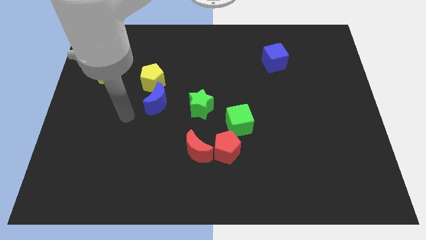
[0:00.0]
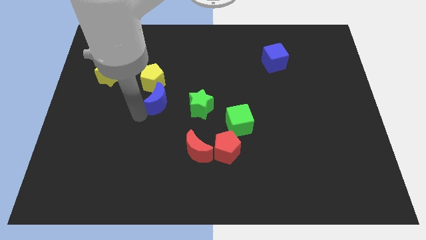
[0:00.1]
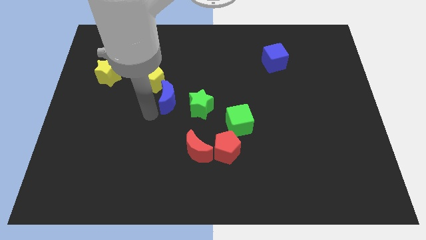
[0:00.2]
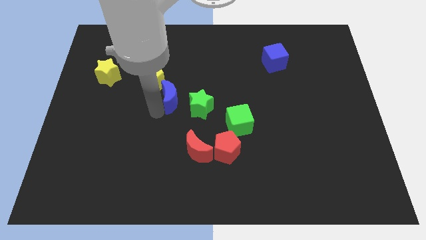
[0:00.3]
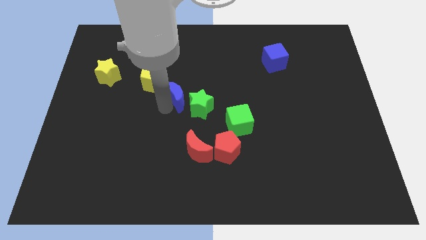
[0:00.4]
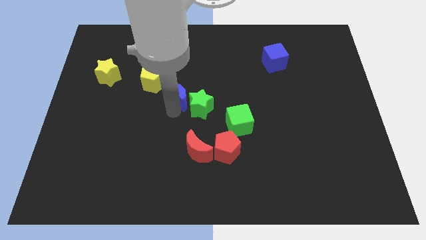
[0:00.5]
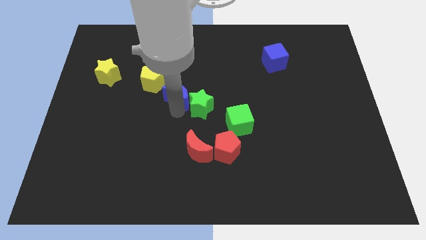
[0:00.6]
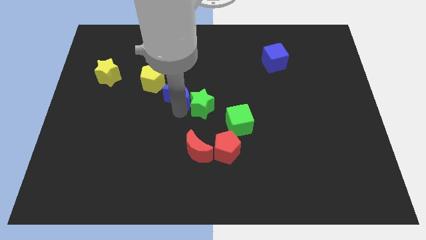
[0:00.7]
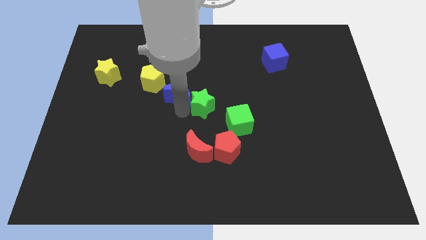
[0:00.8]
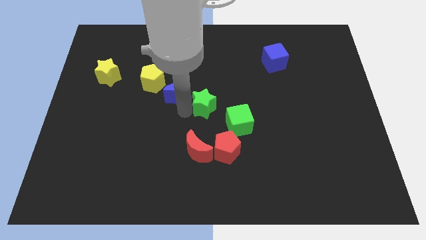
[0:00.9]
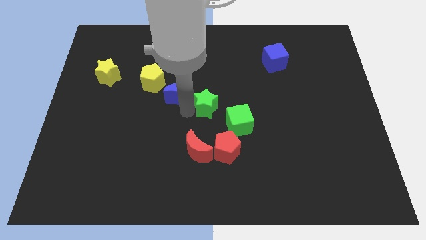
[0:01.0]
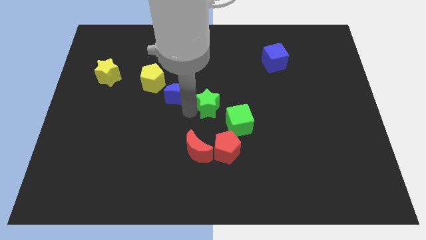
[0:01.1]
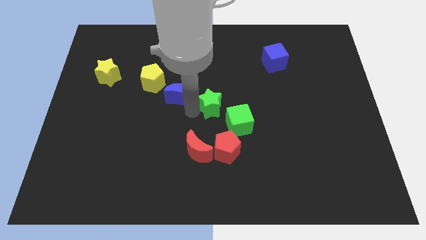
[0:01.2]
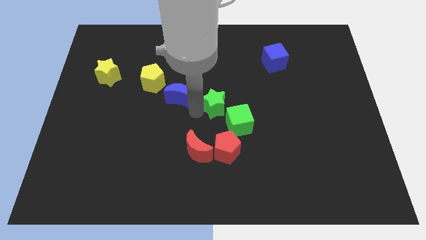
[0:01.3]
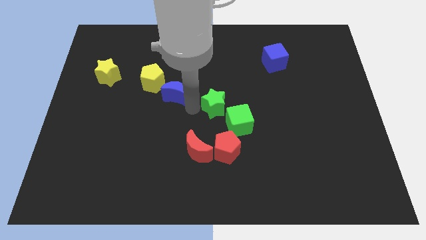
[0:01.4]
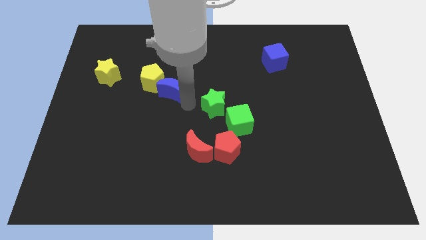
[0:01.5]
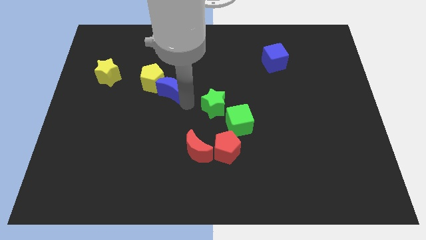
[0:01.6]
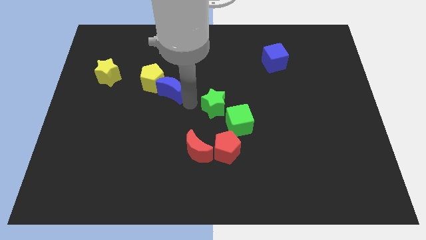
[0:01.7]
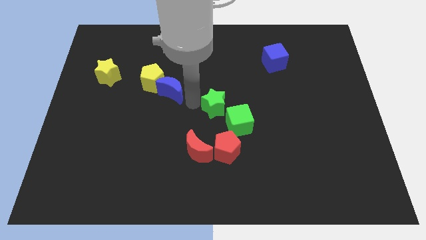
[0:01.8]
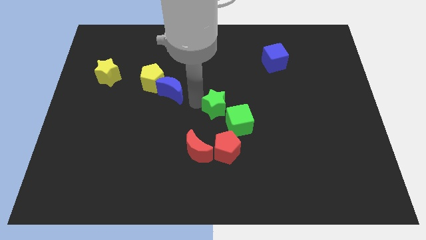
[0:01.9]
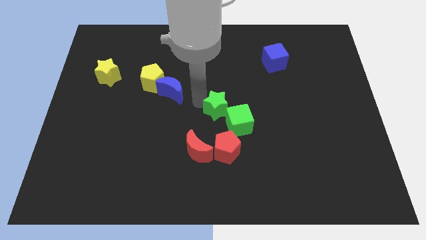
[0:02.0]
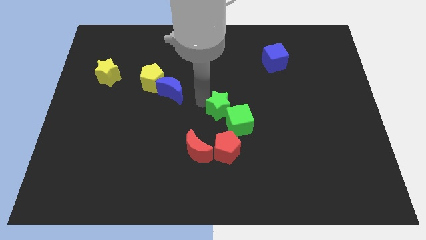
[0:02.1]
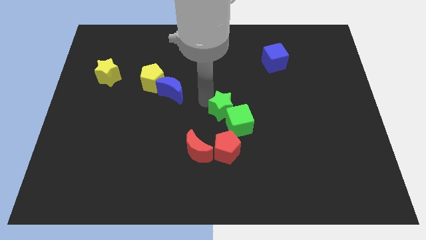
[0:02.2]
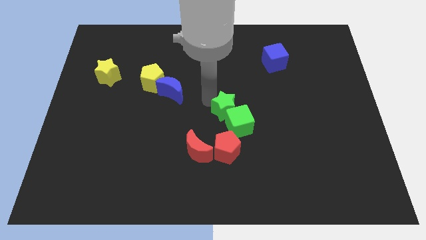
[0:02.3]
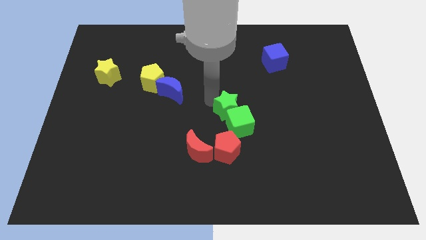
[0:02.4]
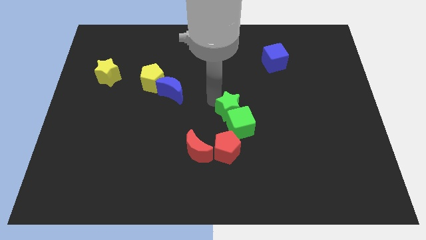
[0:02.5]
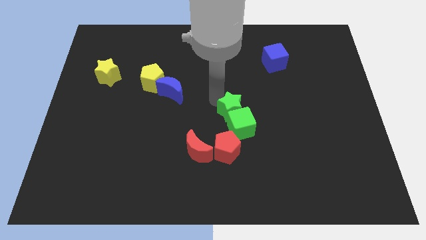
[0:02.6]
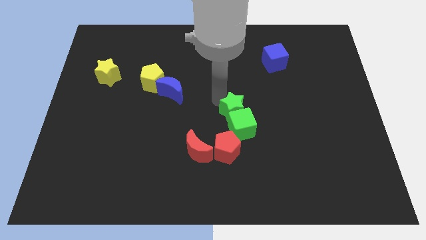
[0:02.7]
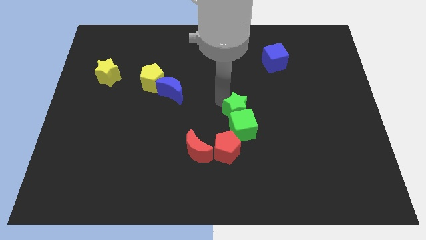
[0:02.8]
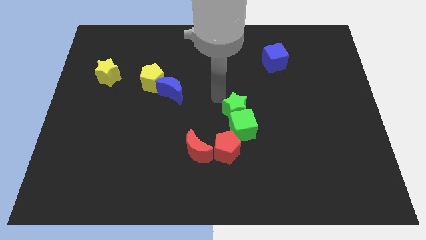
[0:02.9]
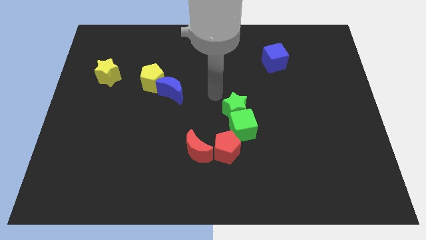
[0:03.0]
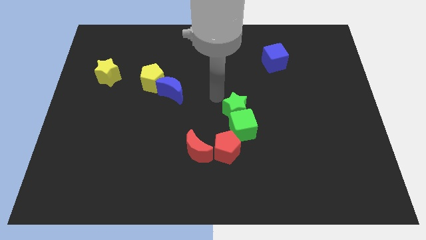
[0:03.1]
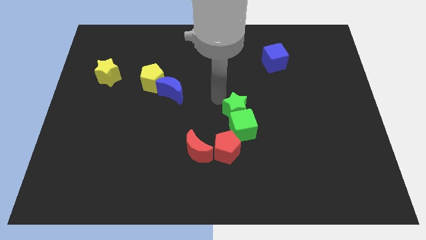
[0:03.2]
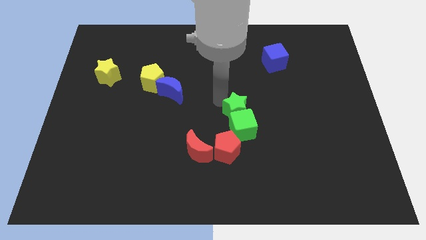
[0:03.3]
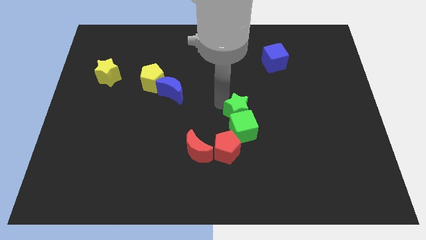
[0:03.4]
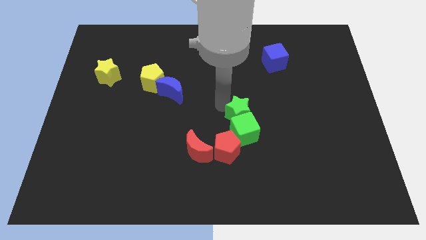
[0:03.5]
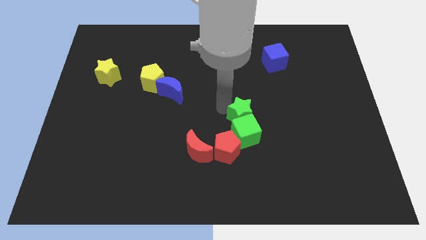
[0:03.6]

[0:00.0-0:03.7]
move the green star somewhat downwards and then right

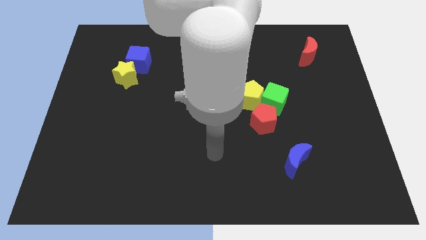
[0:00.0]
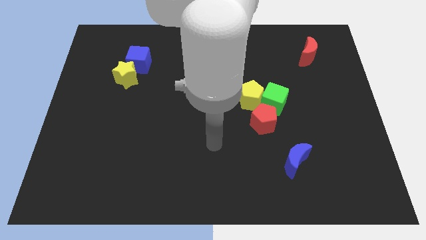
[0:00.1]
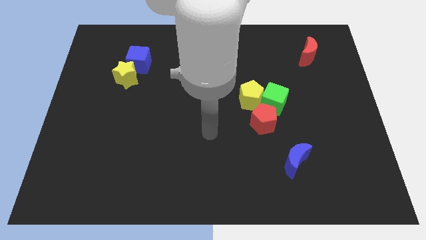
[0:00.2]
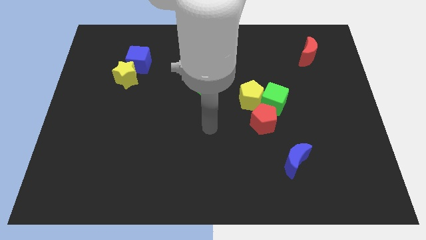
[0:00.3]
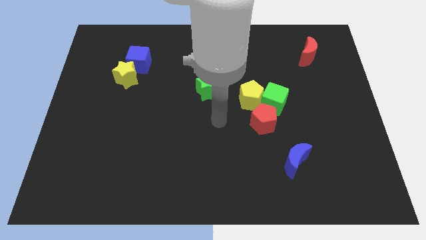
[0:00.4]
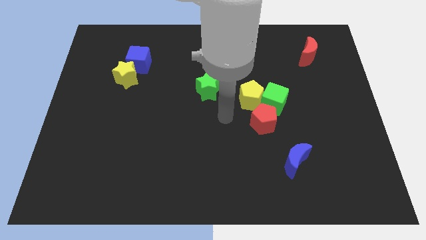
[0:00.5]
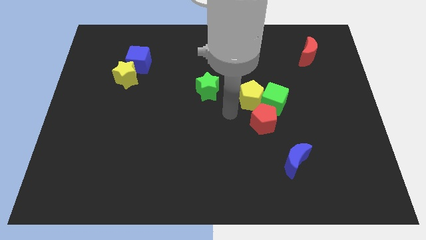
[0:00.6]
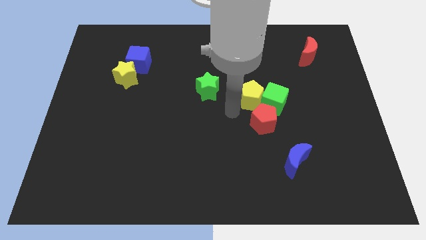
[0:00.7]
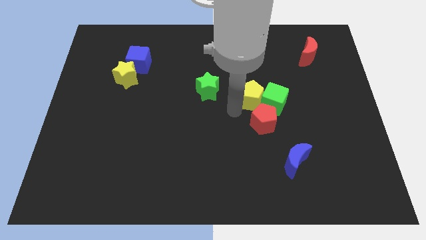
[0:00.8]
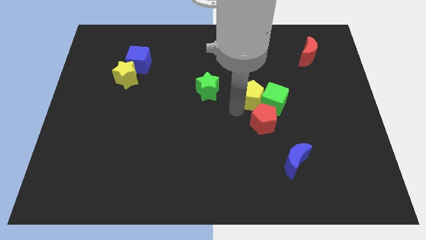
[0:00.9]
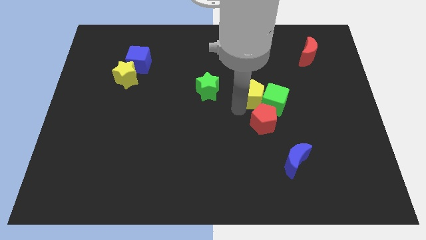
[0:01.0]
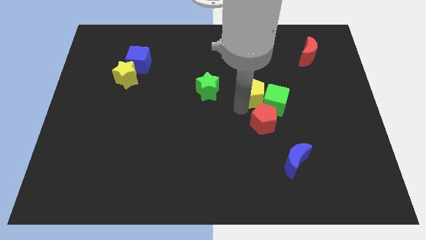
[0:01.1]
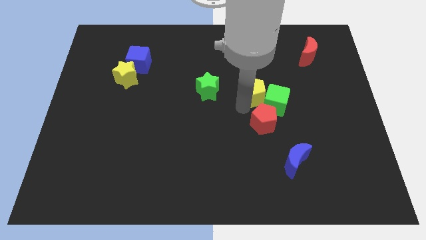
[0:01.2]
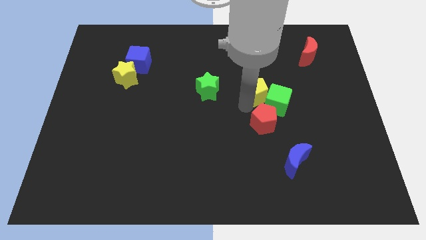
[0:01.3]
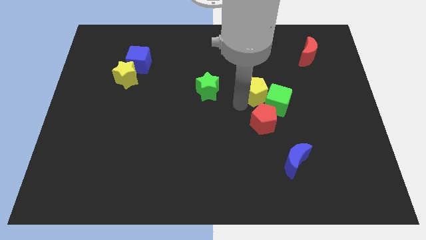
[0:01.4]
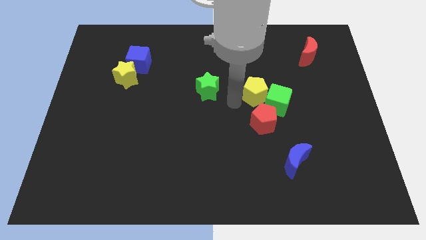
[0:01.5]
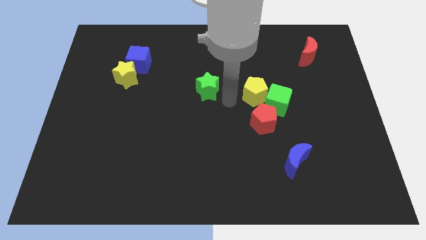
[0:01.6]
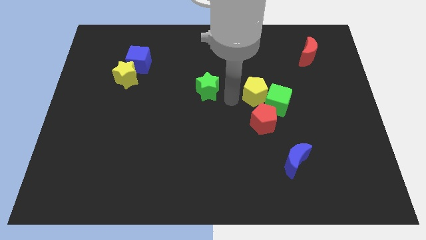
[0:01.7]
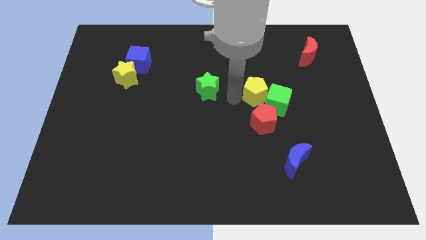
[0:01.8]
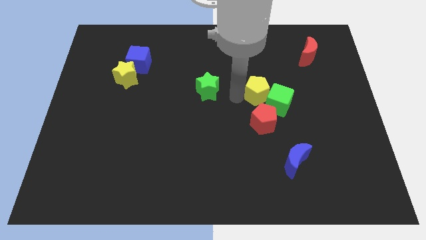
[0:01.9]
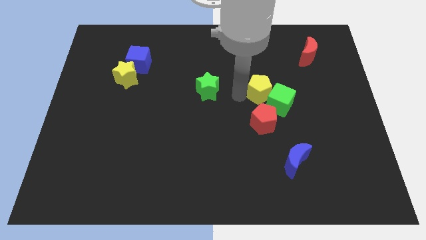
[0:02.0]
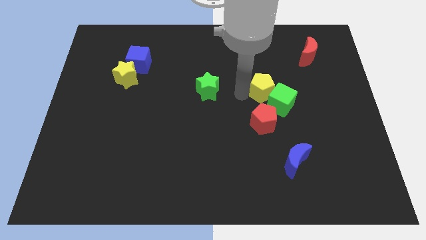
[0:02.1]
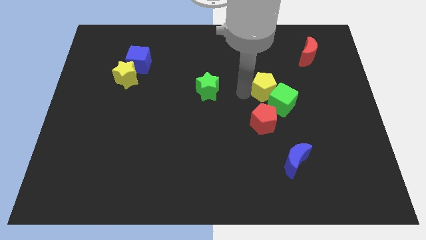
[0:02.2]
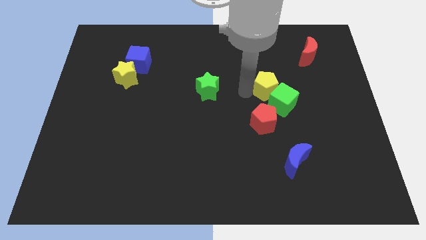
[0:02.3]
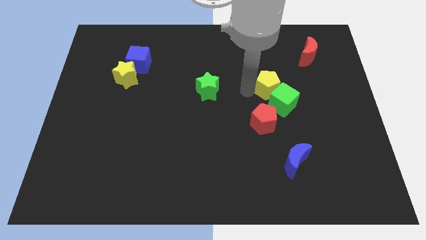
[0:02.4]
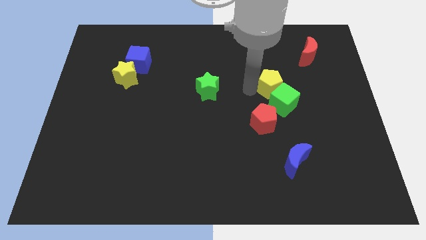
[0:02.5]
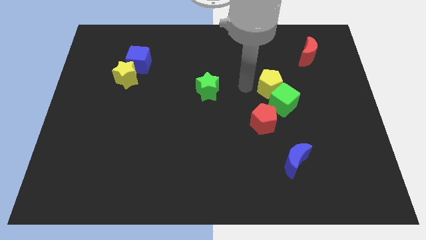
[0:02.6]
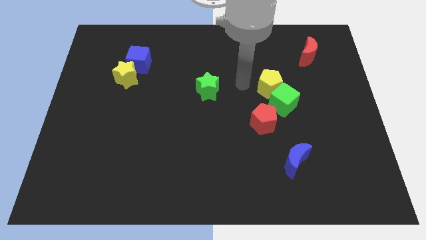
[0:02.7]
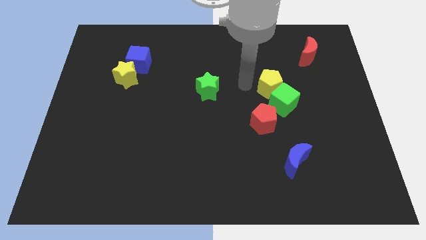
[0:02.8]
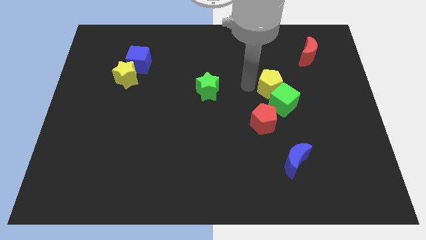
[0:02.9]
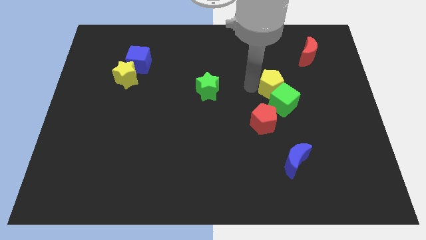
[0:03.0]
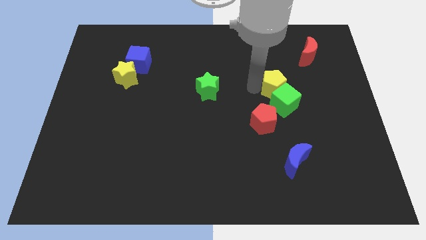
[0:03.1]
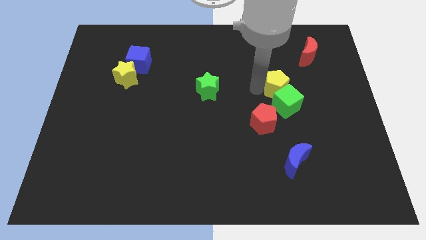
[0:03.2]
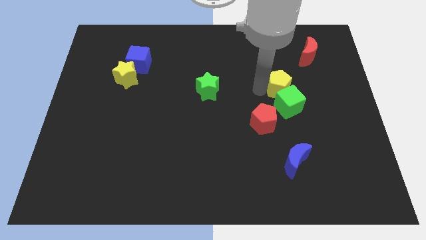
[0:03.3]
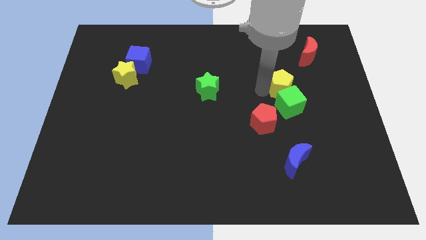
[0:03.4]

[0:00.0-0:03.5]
move the yellow pentagon somewhat to the right

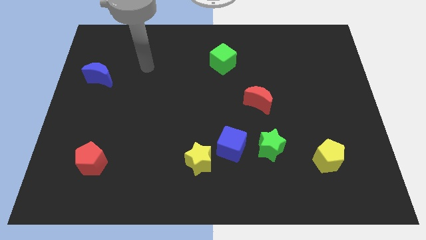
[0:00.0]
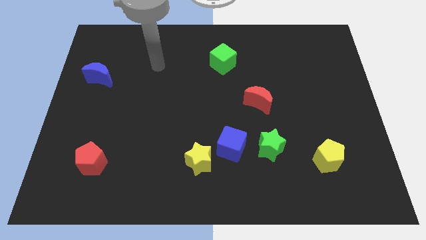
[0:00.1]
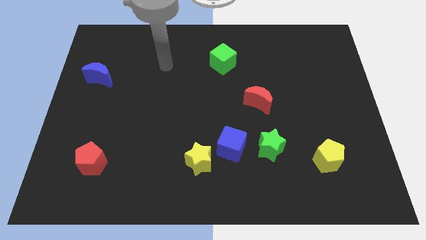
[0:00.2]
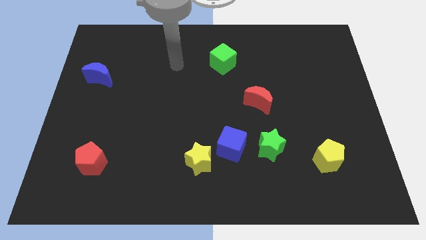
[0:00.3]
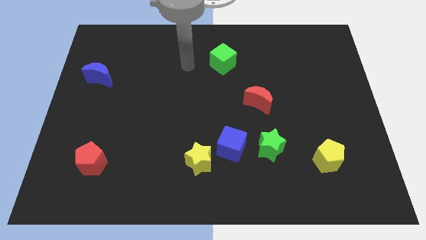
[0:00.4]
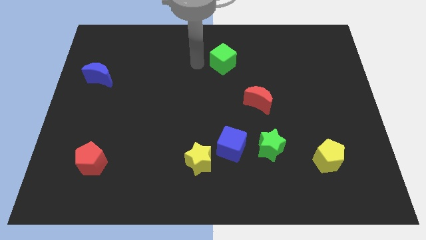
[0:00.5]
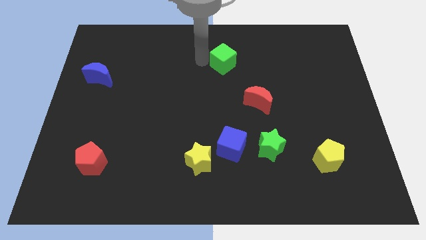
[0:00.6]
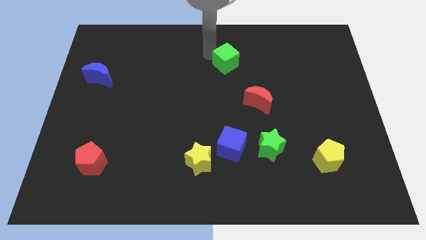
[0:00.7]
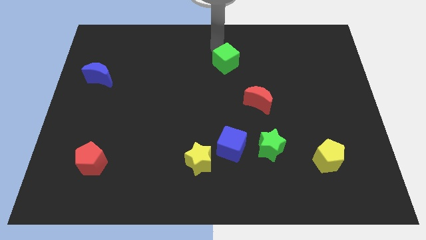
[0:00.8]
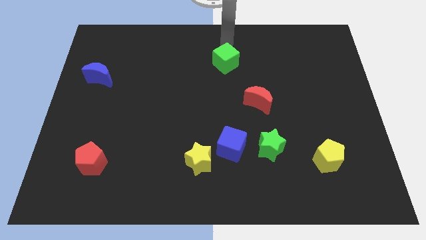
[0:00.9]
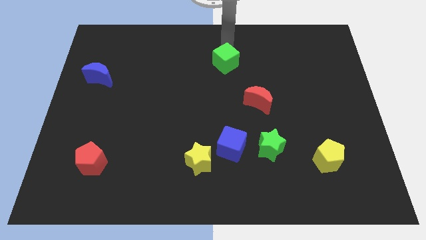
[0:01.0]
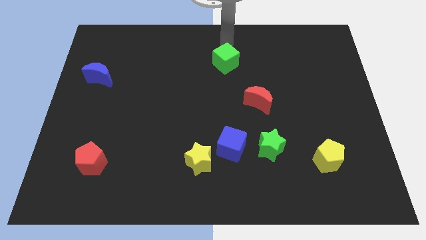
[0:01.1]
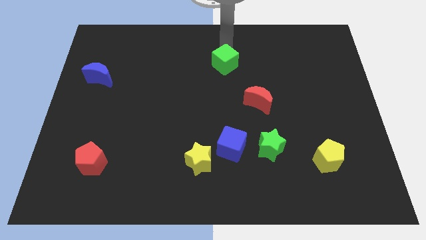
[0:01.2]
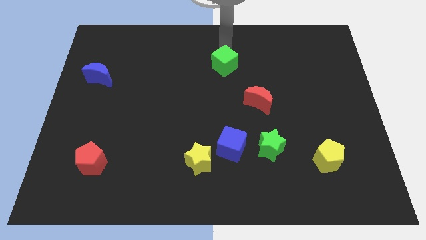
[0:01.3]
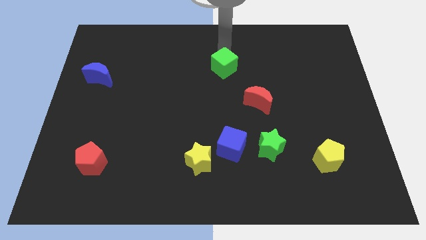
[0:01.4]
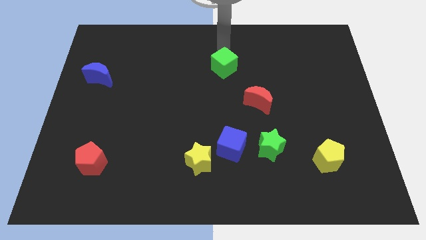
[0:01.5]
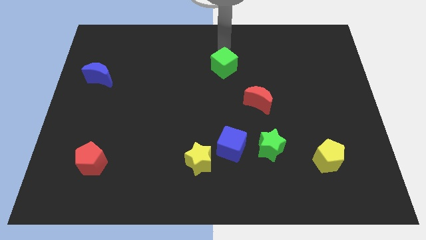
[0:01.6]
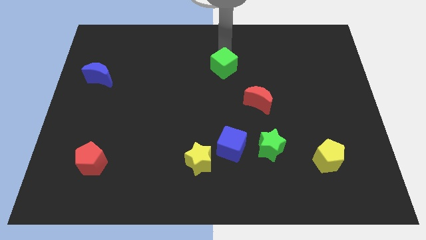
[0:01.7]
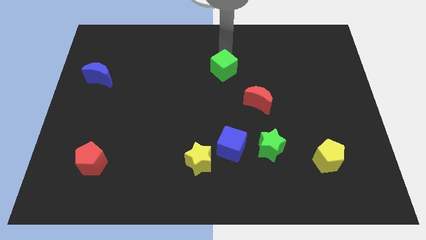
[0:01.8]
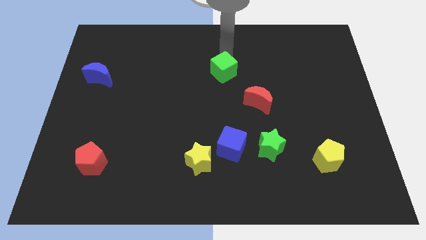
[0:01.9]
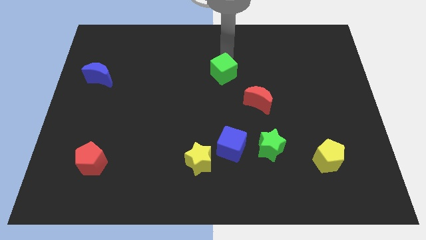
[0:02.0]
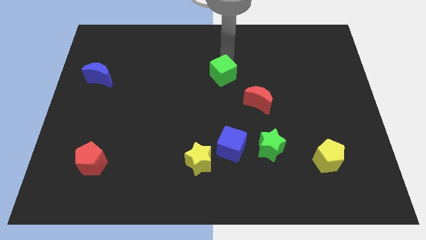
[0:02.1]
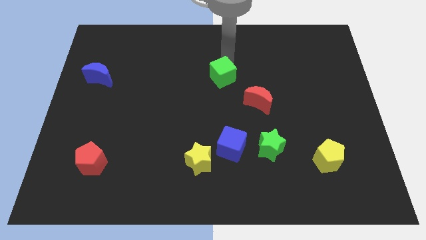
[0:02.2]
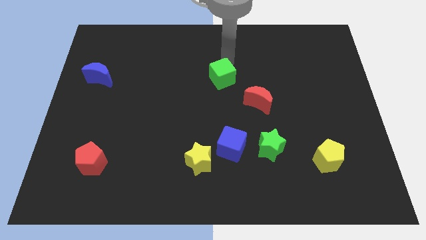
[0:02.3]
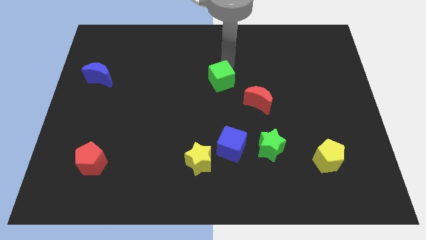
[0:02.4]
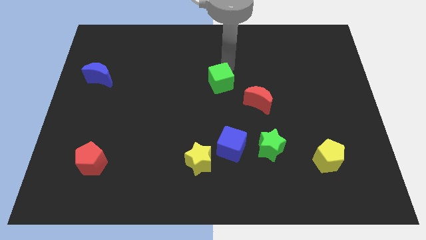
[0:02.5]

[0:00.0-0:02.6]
push the green cube downwards somewhat
